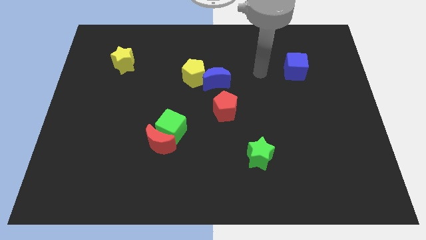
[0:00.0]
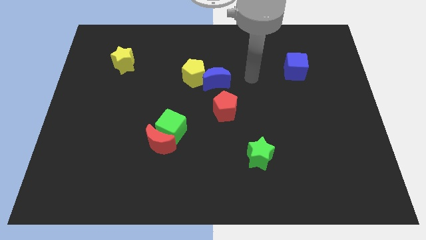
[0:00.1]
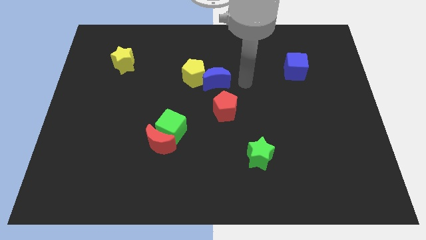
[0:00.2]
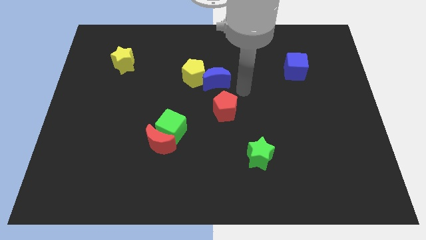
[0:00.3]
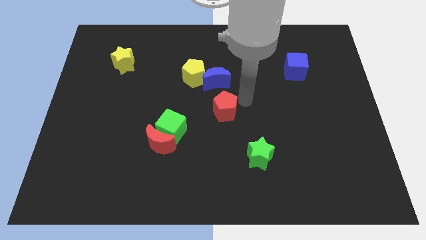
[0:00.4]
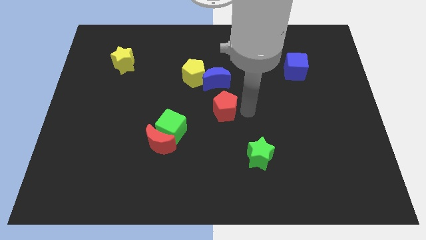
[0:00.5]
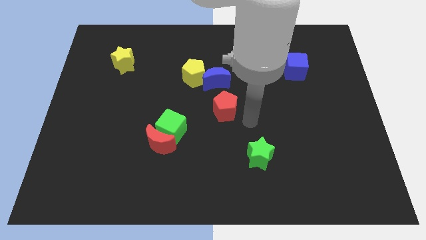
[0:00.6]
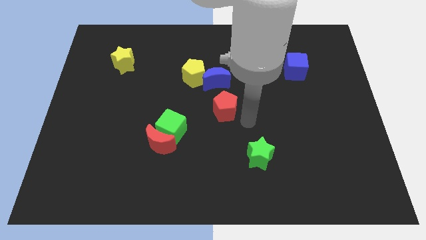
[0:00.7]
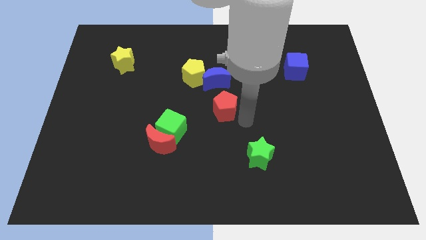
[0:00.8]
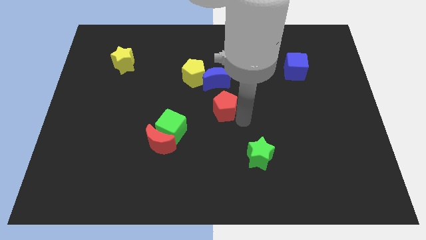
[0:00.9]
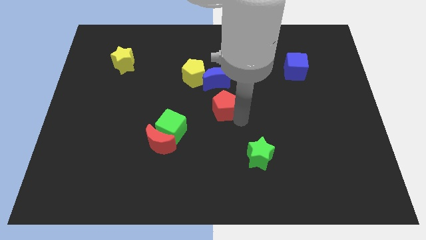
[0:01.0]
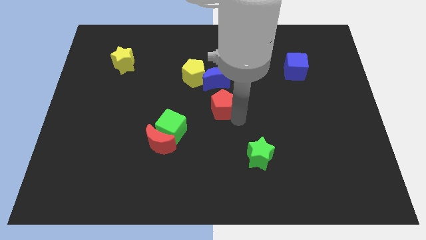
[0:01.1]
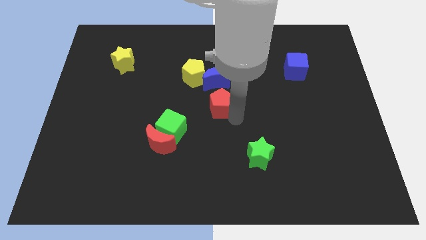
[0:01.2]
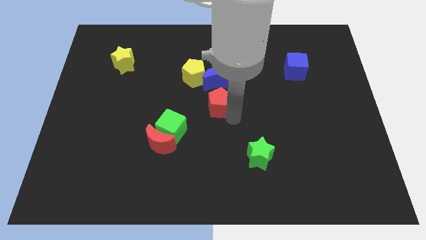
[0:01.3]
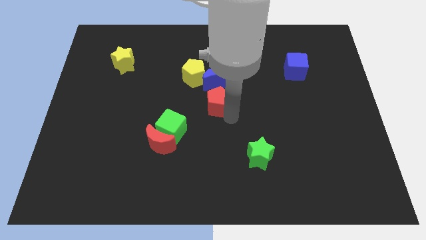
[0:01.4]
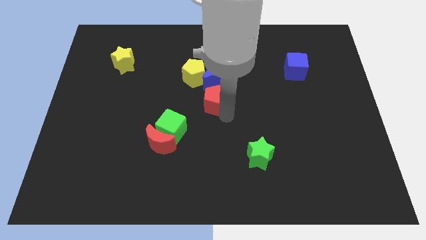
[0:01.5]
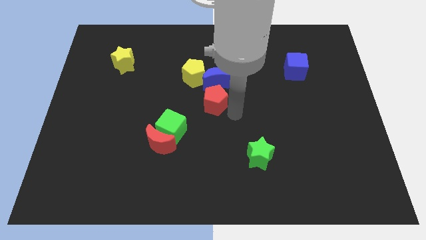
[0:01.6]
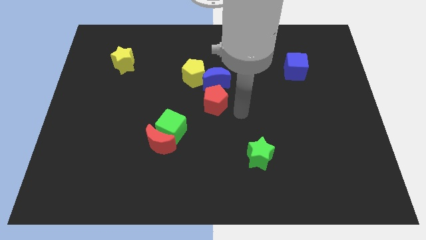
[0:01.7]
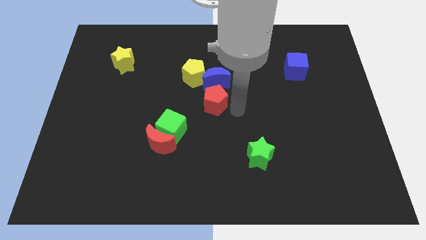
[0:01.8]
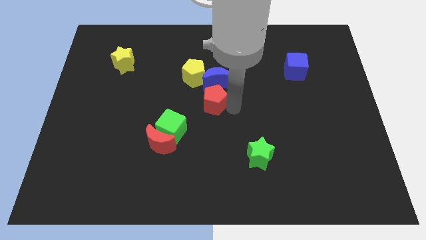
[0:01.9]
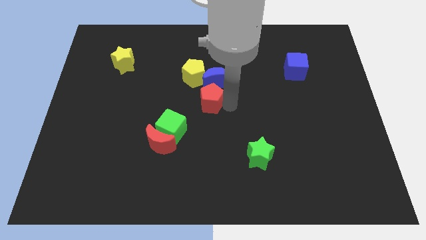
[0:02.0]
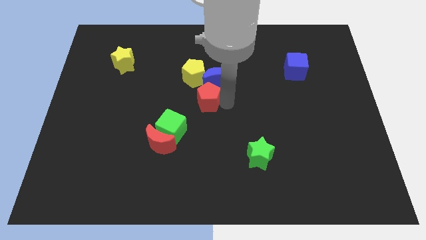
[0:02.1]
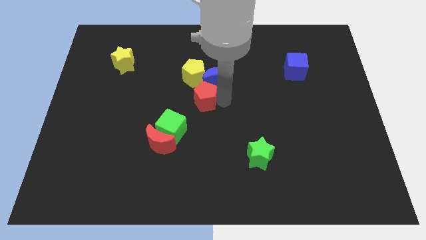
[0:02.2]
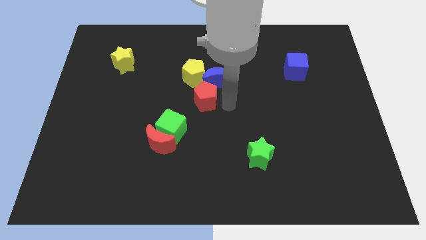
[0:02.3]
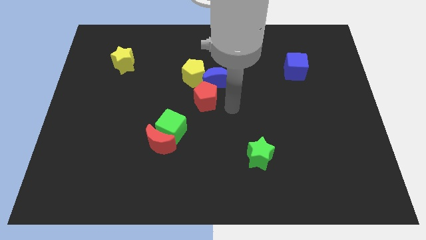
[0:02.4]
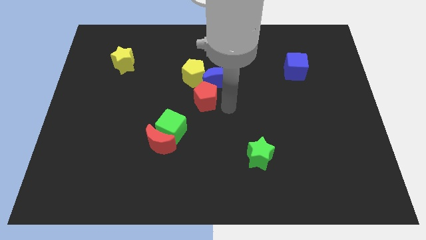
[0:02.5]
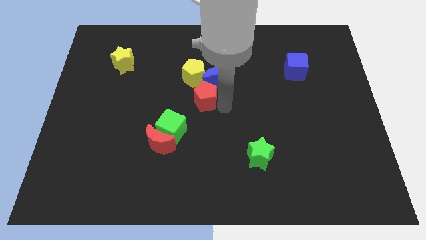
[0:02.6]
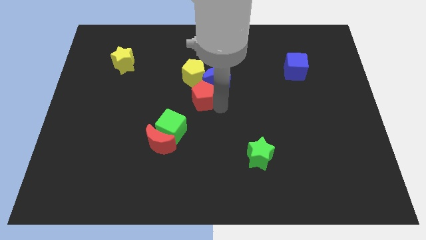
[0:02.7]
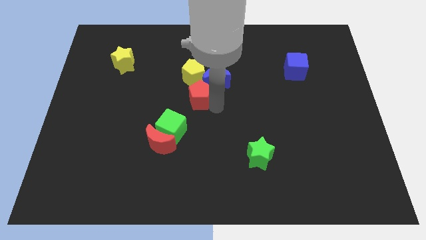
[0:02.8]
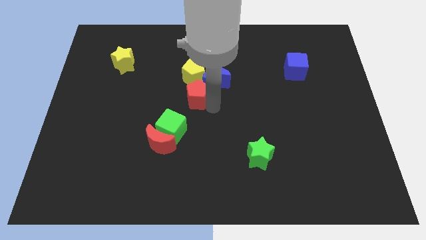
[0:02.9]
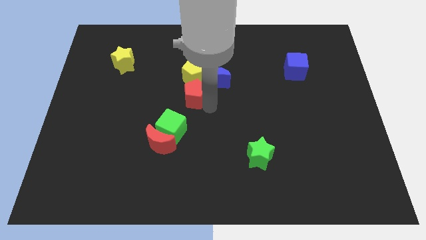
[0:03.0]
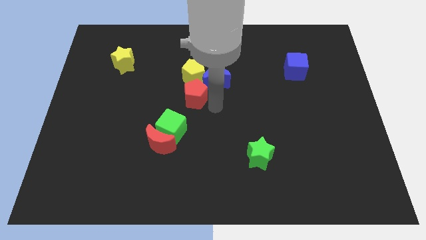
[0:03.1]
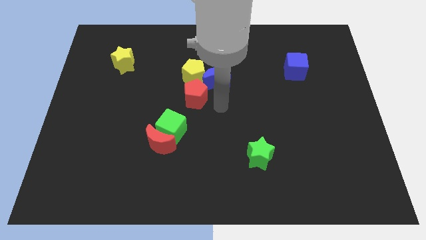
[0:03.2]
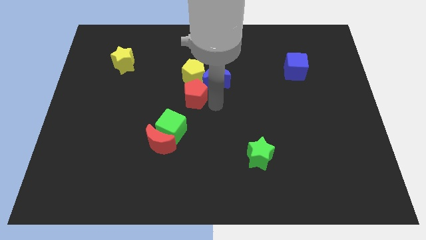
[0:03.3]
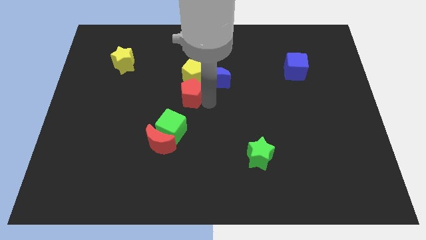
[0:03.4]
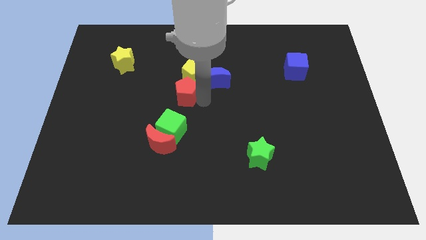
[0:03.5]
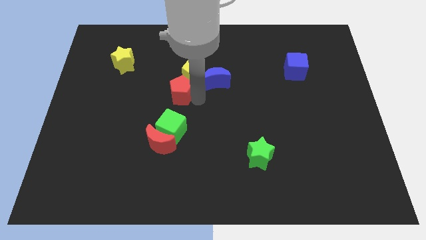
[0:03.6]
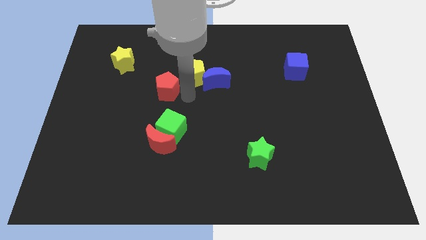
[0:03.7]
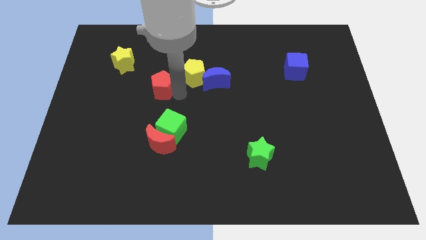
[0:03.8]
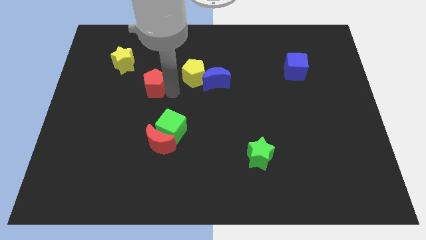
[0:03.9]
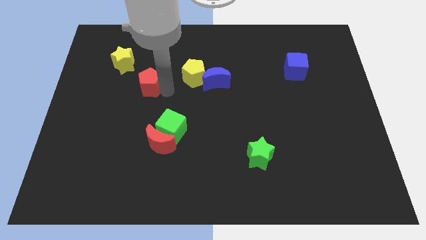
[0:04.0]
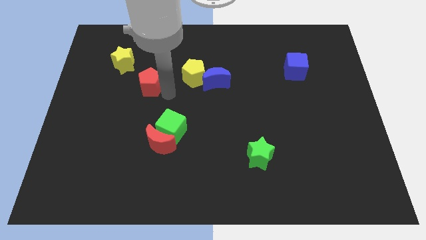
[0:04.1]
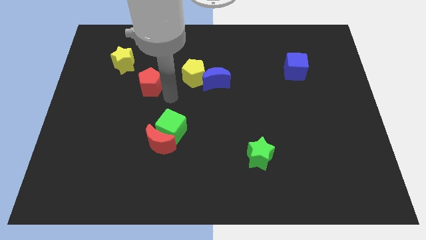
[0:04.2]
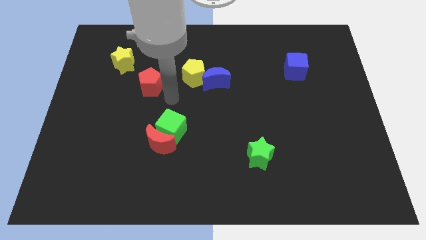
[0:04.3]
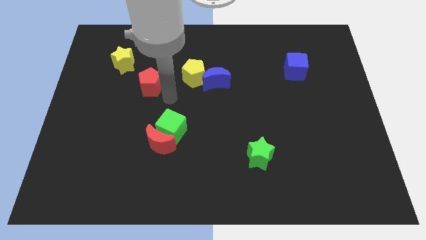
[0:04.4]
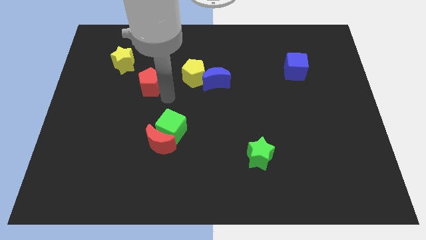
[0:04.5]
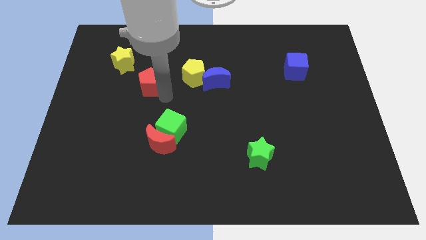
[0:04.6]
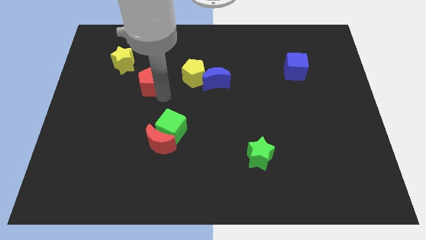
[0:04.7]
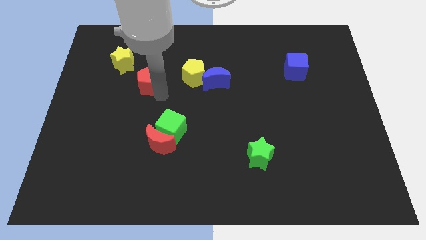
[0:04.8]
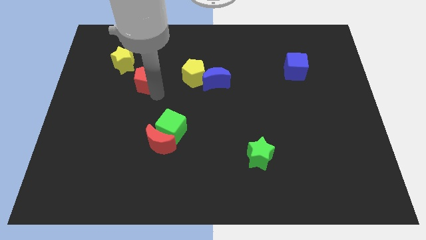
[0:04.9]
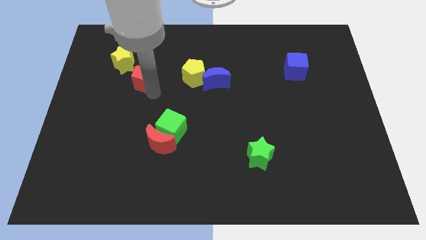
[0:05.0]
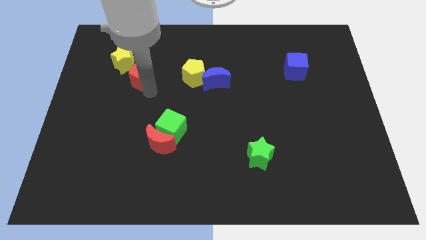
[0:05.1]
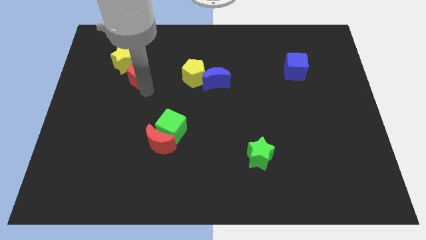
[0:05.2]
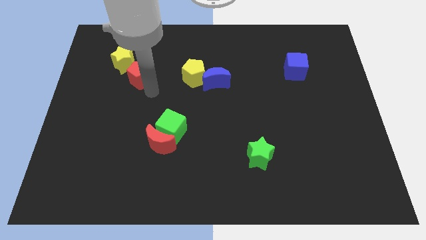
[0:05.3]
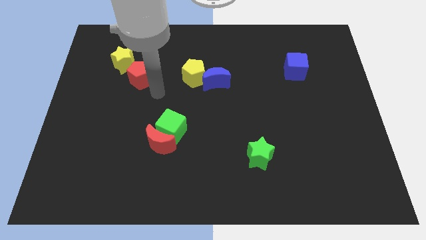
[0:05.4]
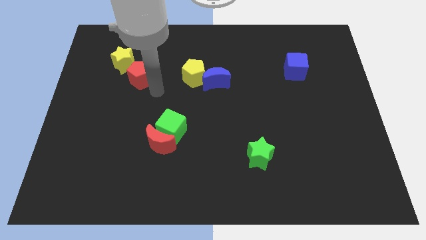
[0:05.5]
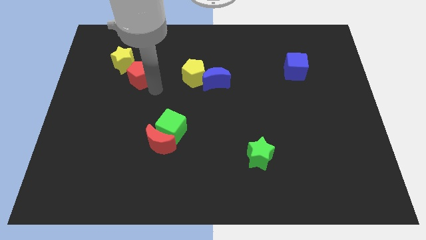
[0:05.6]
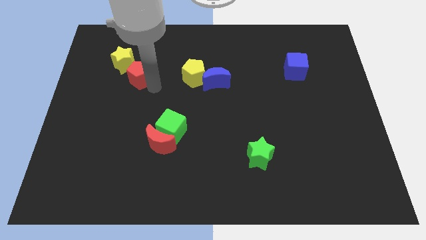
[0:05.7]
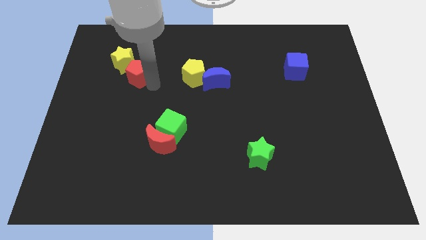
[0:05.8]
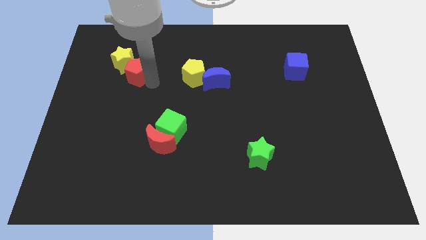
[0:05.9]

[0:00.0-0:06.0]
push the red pentagon to the yellow star
